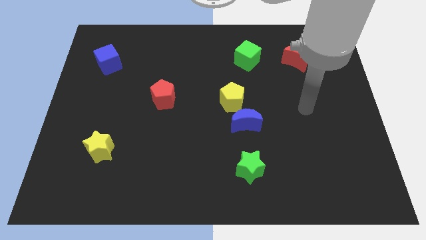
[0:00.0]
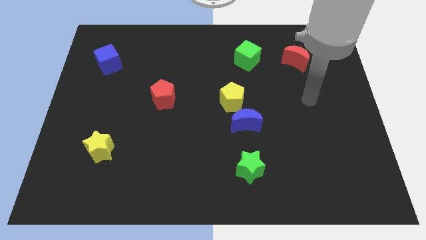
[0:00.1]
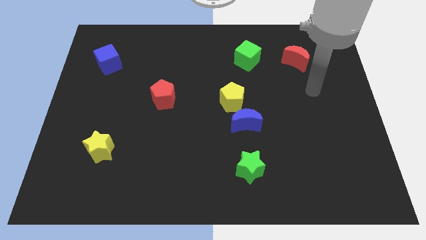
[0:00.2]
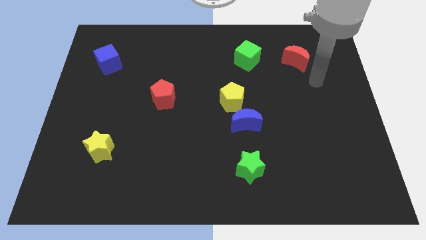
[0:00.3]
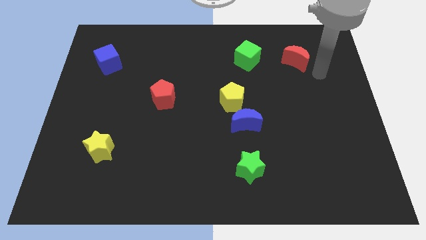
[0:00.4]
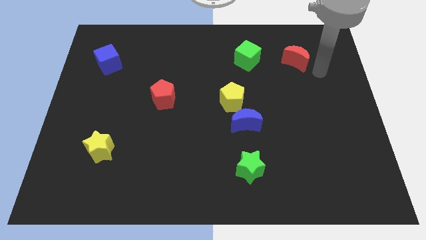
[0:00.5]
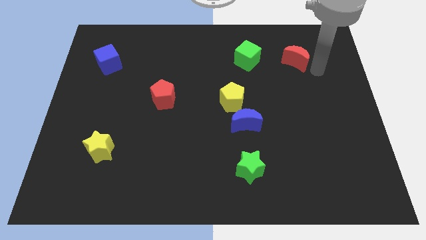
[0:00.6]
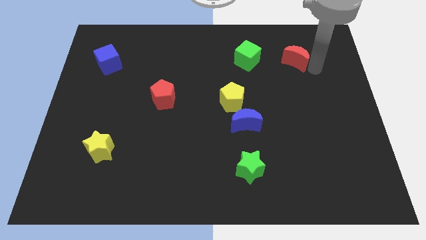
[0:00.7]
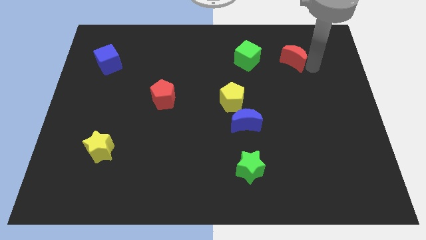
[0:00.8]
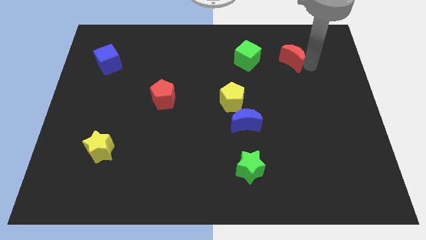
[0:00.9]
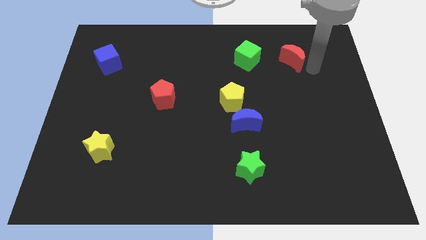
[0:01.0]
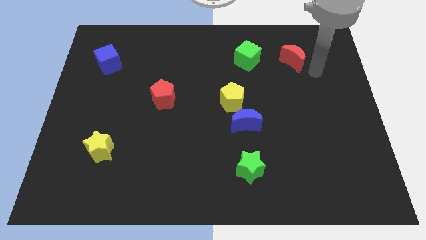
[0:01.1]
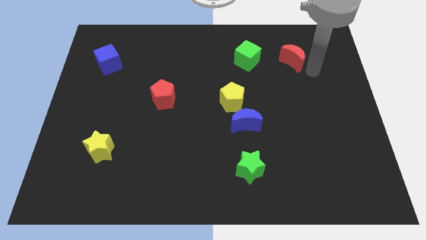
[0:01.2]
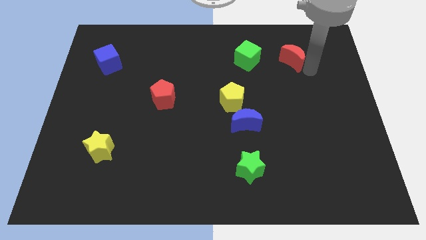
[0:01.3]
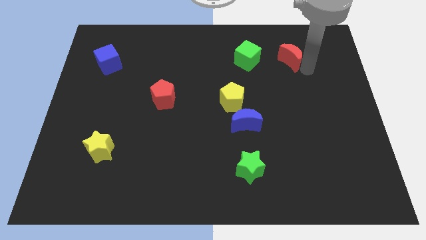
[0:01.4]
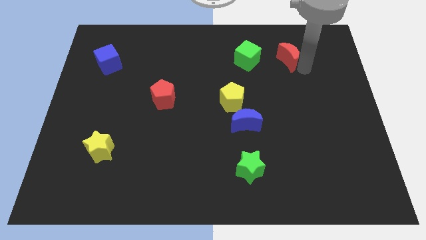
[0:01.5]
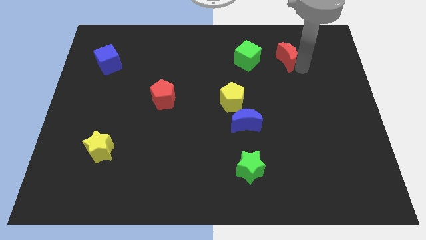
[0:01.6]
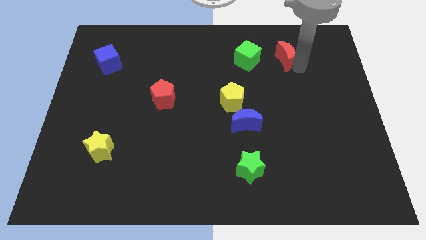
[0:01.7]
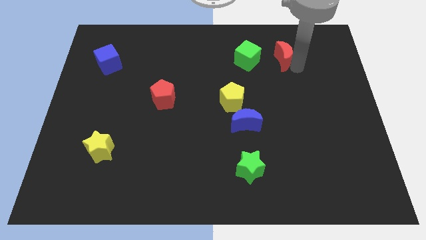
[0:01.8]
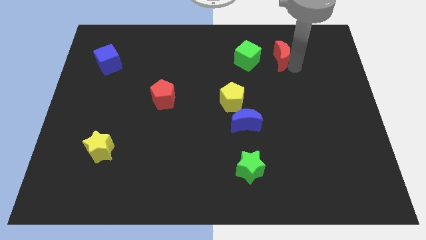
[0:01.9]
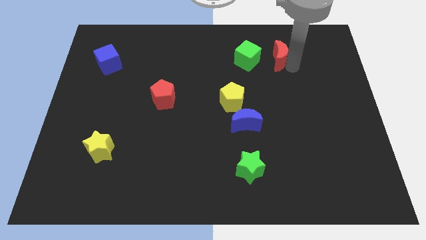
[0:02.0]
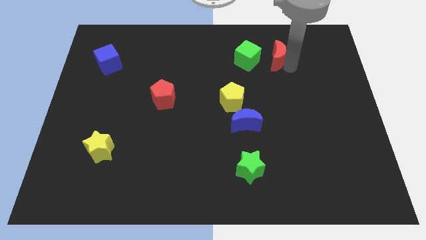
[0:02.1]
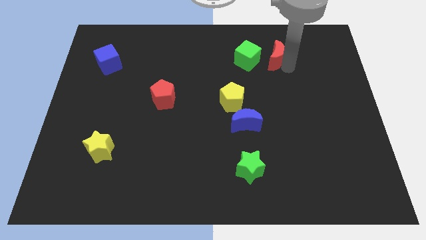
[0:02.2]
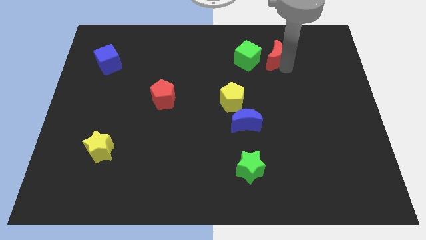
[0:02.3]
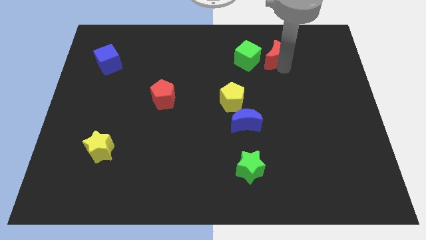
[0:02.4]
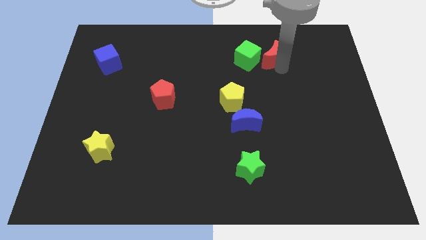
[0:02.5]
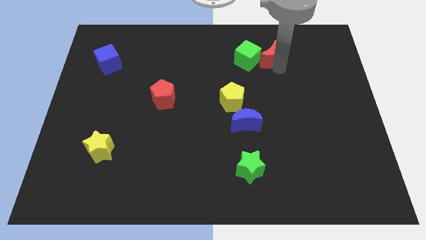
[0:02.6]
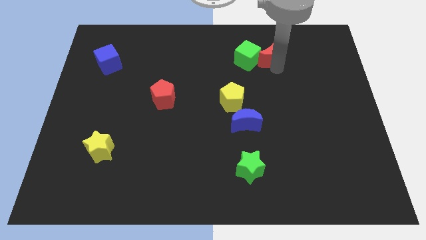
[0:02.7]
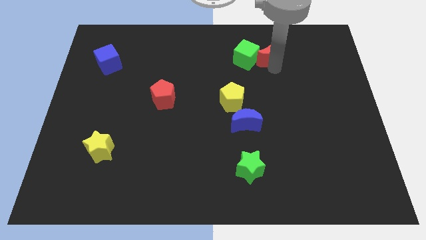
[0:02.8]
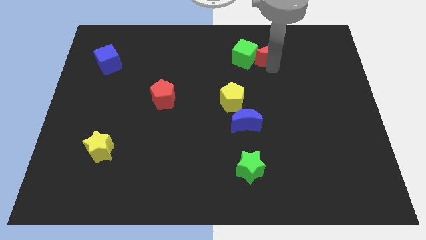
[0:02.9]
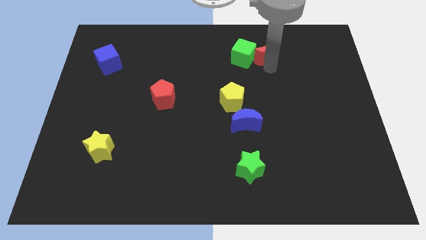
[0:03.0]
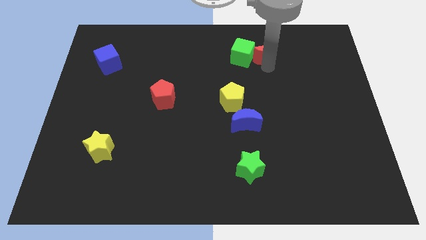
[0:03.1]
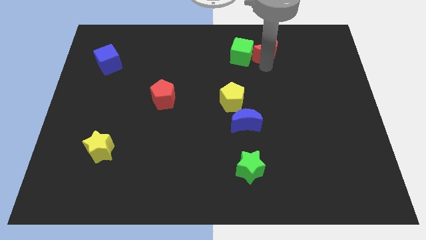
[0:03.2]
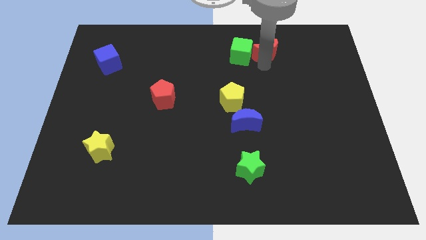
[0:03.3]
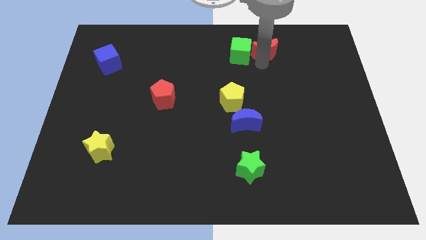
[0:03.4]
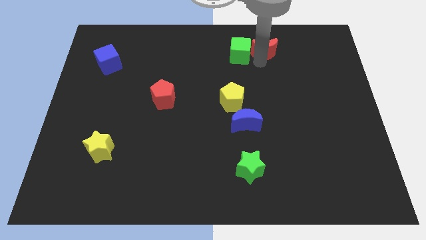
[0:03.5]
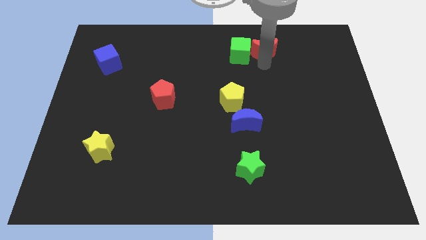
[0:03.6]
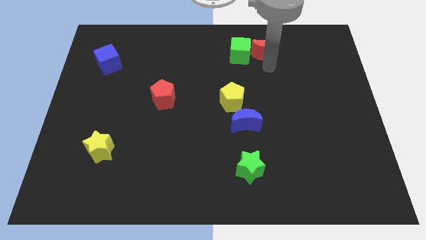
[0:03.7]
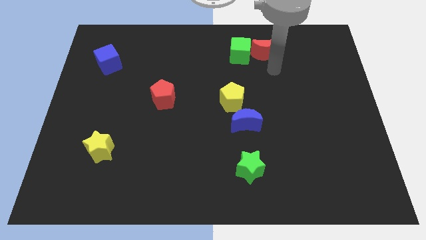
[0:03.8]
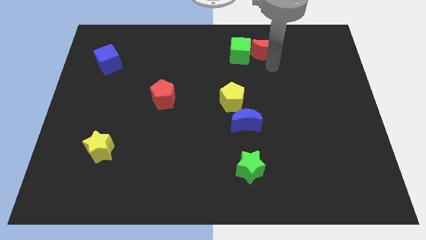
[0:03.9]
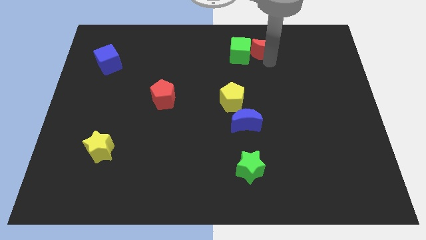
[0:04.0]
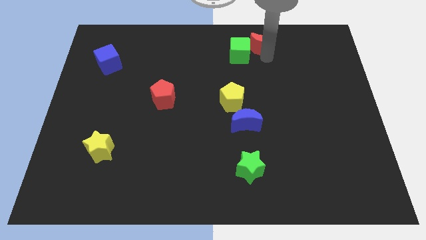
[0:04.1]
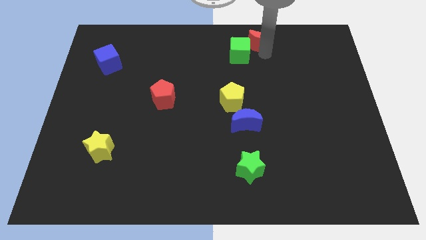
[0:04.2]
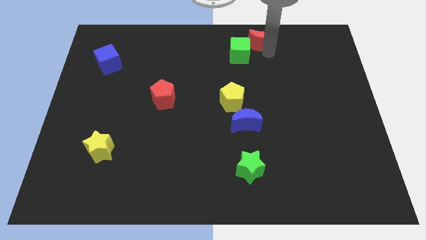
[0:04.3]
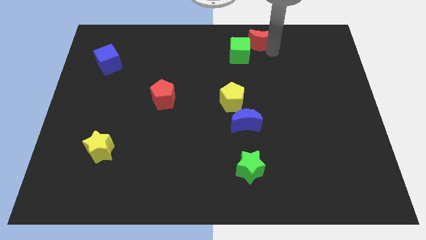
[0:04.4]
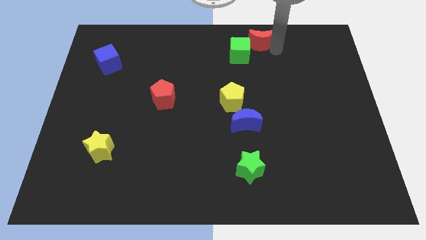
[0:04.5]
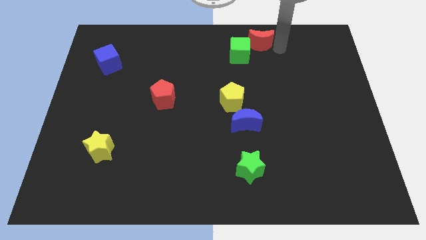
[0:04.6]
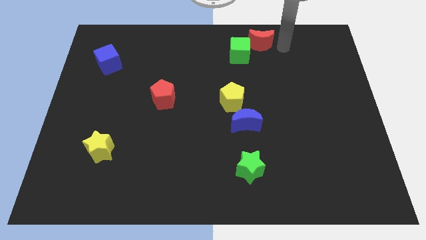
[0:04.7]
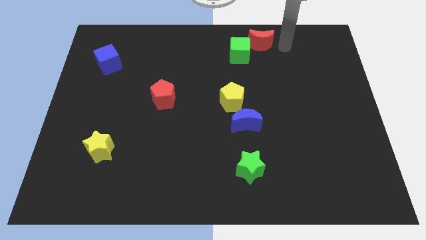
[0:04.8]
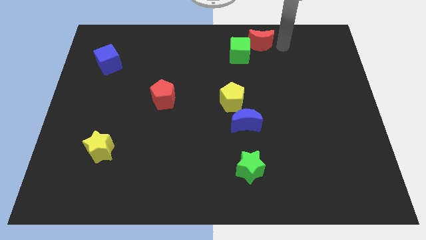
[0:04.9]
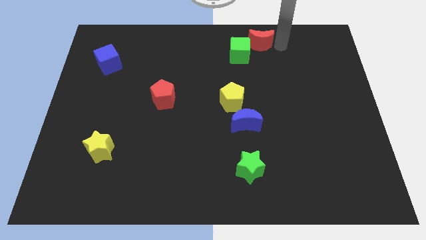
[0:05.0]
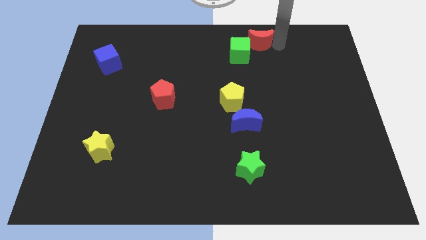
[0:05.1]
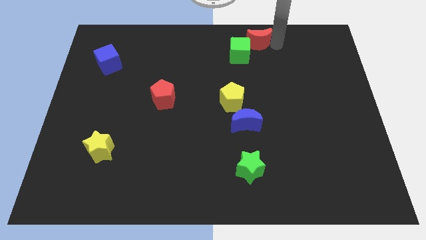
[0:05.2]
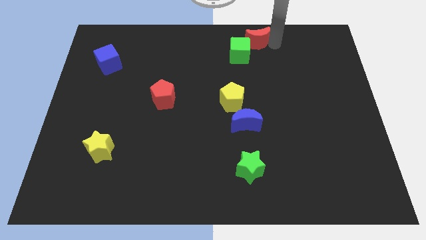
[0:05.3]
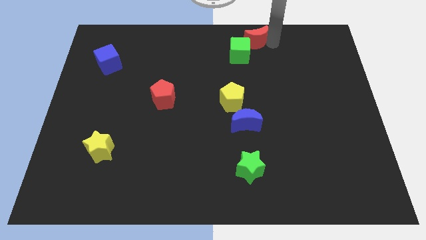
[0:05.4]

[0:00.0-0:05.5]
slide the red moon to the towards your base

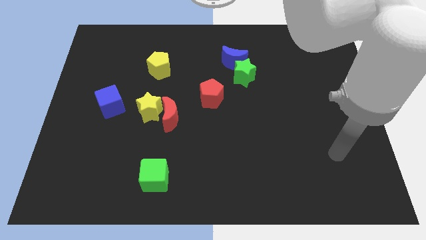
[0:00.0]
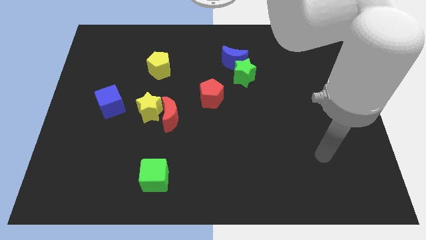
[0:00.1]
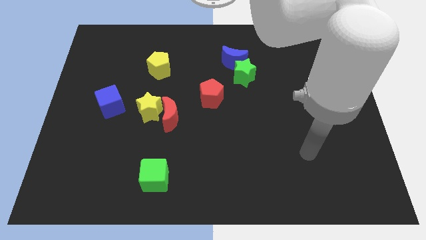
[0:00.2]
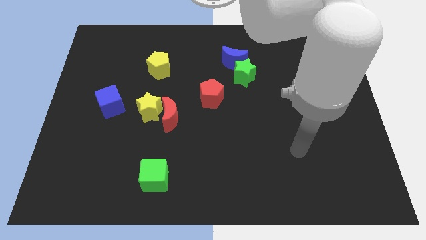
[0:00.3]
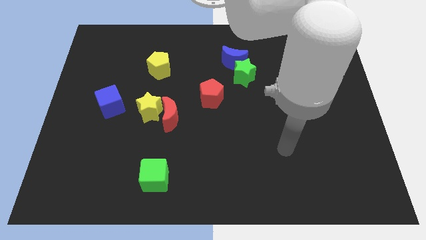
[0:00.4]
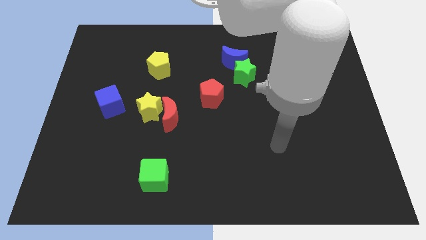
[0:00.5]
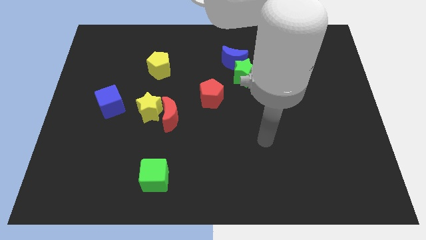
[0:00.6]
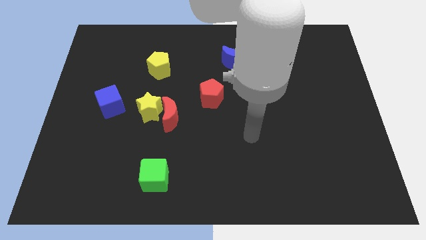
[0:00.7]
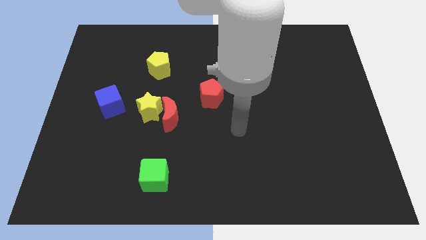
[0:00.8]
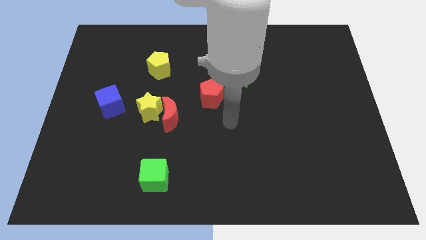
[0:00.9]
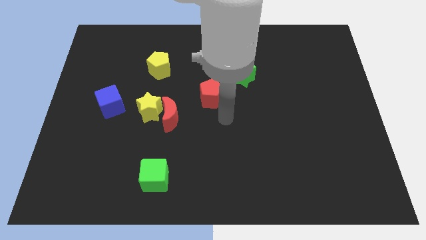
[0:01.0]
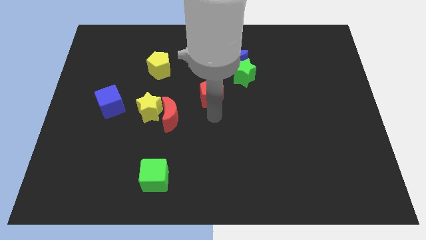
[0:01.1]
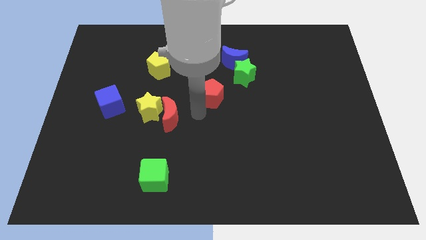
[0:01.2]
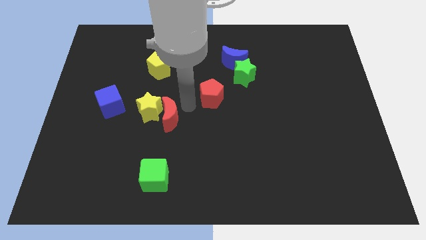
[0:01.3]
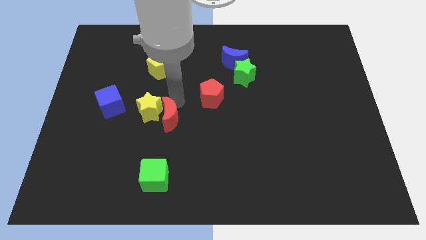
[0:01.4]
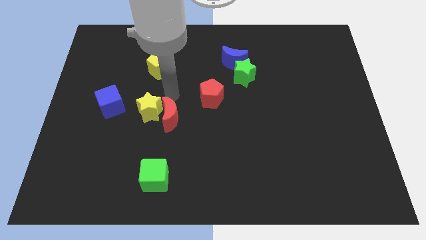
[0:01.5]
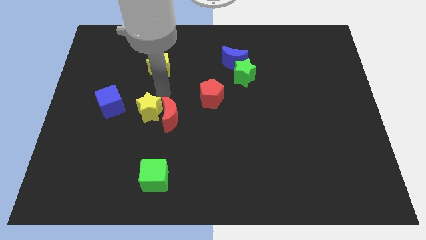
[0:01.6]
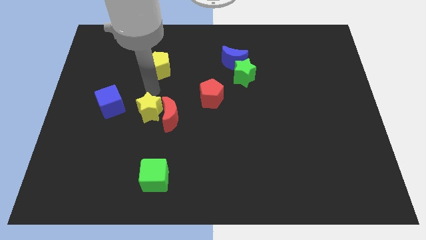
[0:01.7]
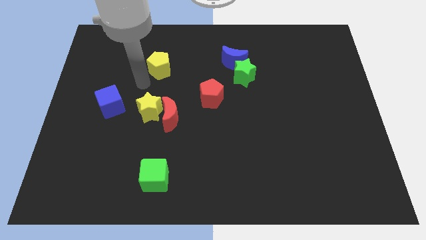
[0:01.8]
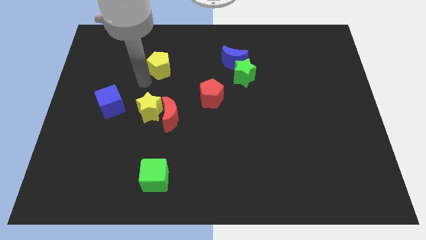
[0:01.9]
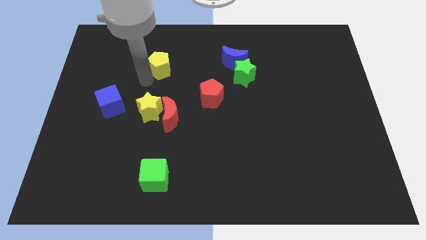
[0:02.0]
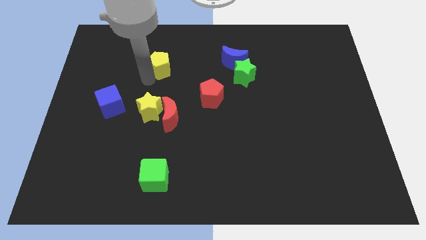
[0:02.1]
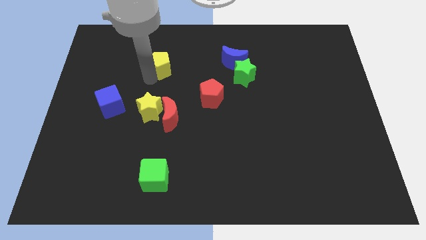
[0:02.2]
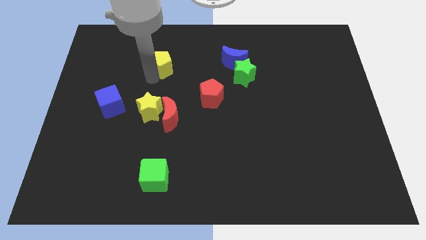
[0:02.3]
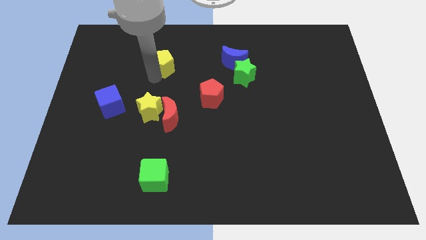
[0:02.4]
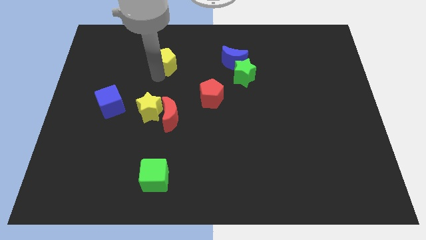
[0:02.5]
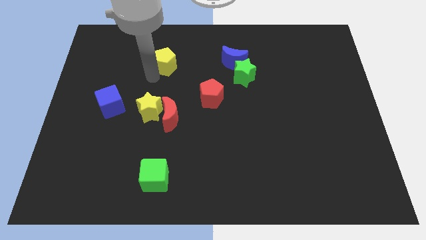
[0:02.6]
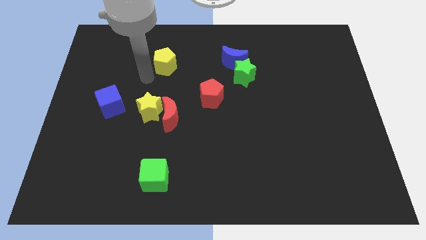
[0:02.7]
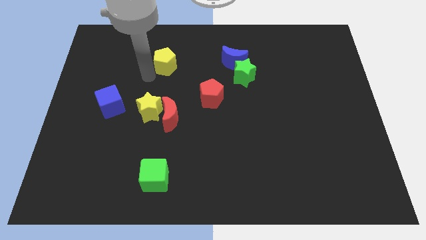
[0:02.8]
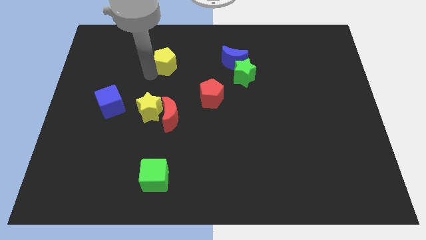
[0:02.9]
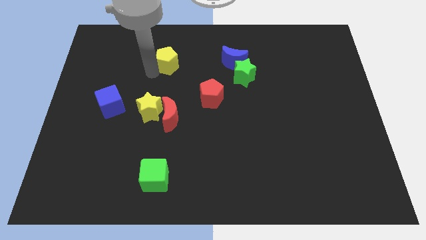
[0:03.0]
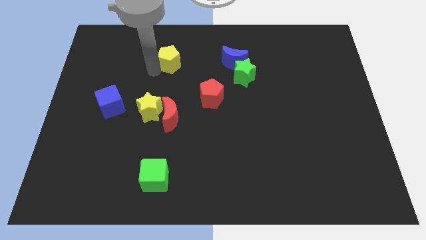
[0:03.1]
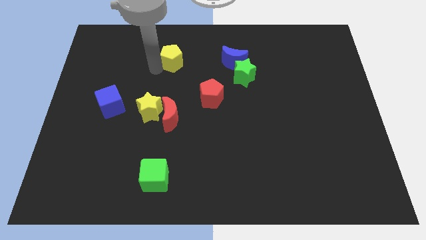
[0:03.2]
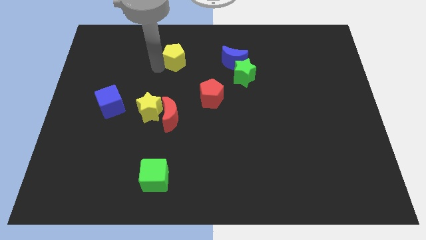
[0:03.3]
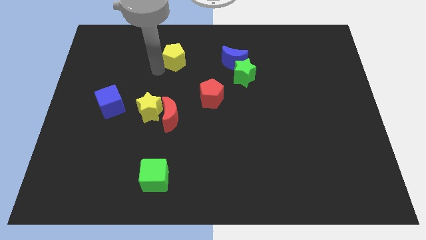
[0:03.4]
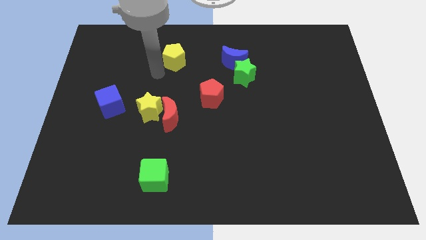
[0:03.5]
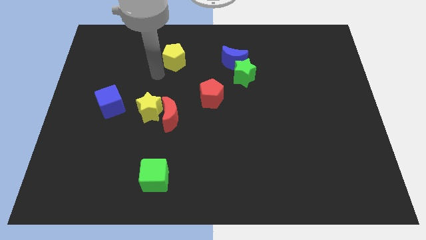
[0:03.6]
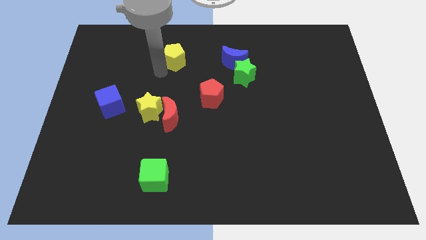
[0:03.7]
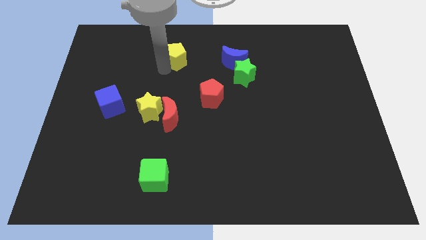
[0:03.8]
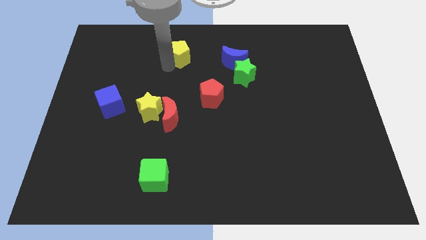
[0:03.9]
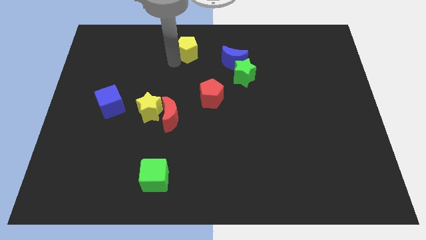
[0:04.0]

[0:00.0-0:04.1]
move the yellow pentagon to the top side
